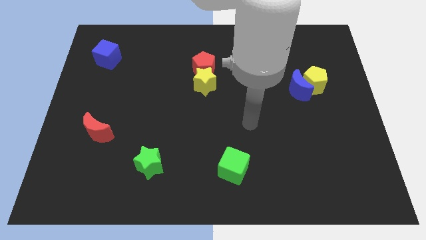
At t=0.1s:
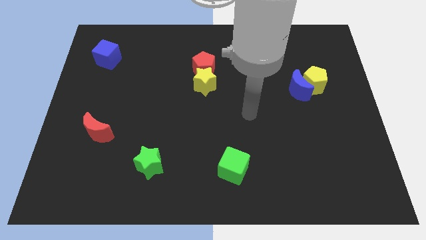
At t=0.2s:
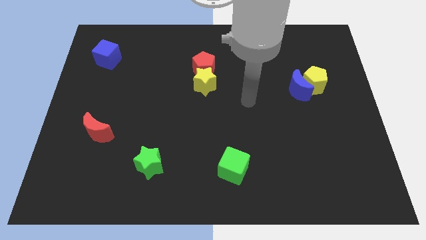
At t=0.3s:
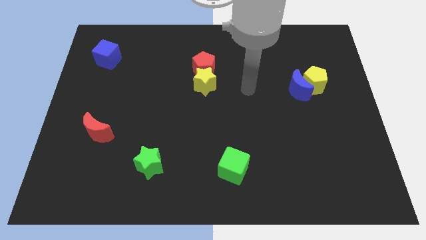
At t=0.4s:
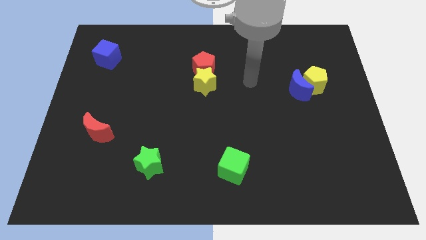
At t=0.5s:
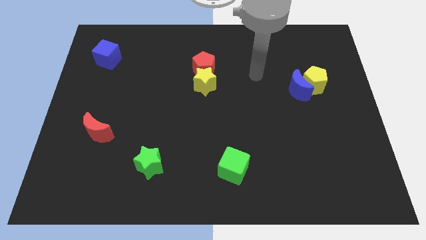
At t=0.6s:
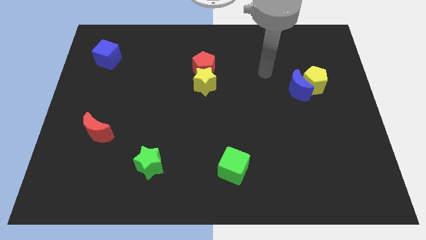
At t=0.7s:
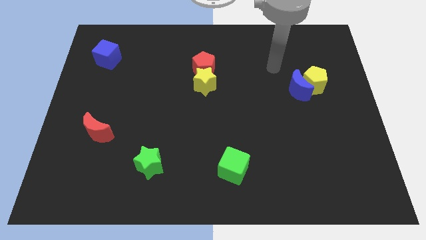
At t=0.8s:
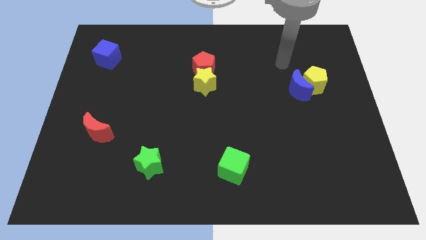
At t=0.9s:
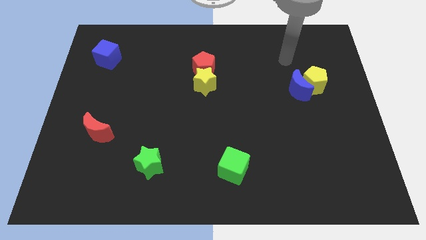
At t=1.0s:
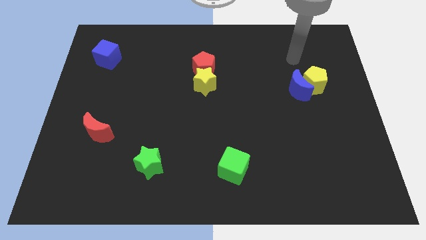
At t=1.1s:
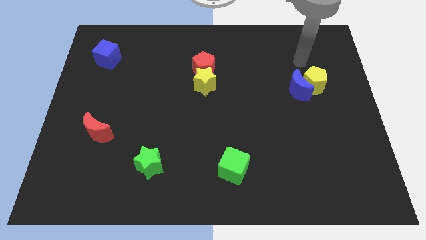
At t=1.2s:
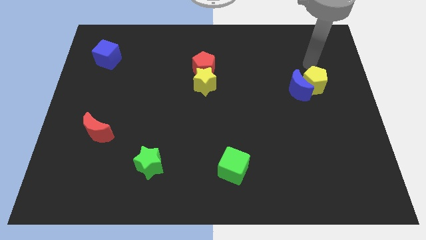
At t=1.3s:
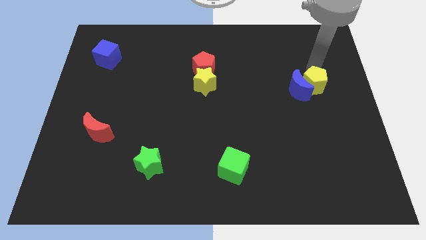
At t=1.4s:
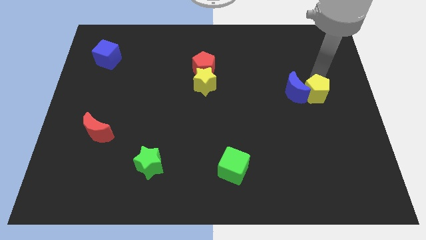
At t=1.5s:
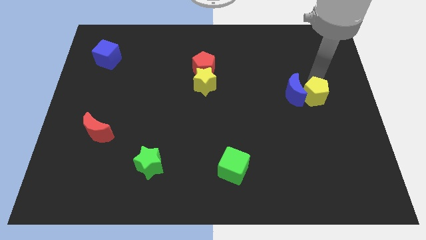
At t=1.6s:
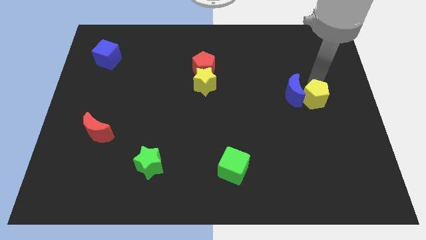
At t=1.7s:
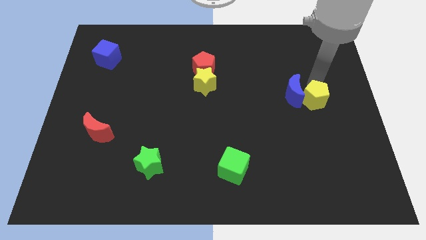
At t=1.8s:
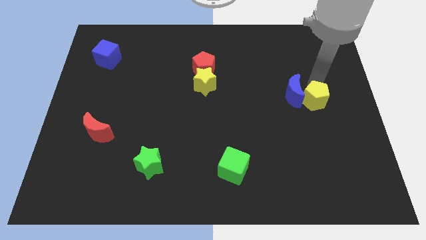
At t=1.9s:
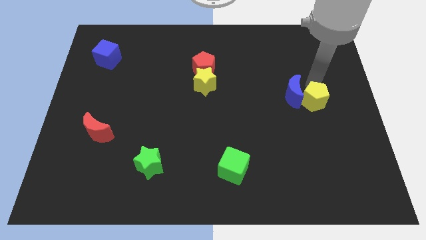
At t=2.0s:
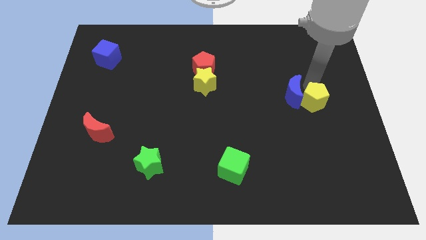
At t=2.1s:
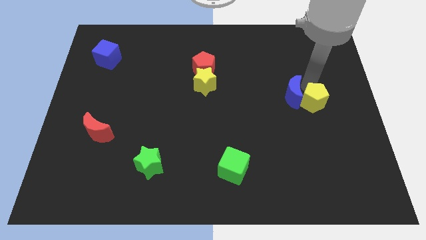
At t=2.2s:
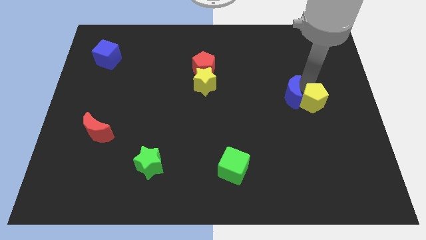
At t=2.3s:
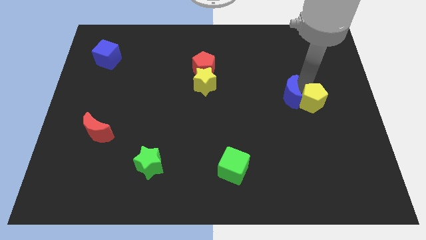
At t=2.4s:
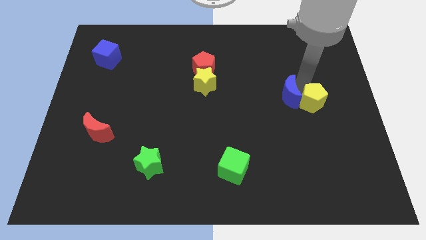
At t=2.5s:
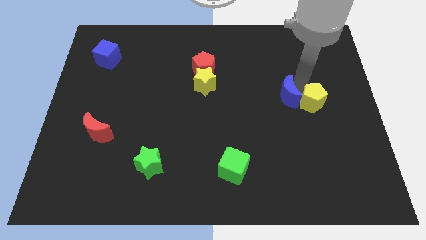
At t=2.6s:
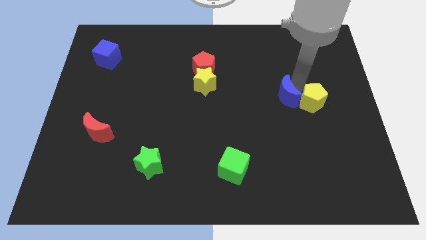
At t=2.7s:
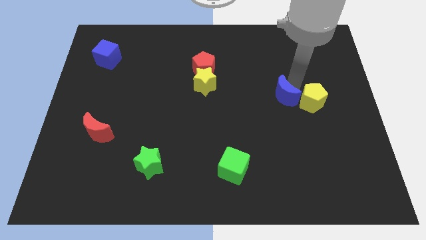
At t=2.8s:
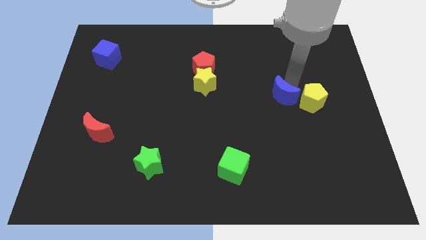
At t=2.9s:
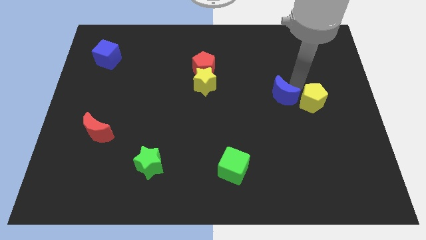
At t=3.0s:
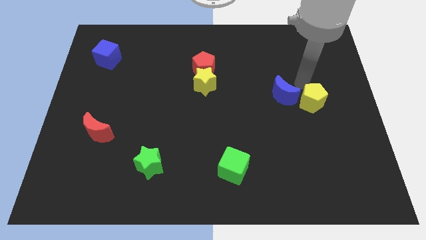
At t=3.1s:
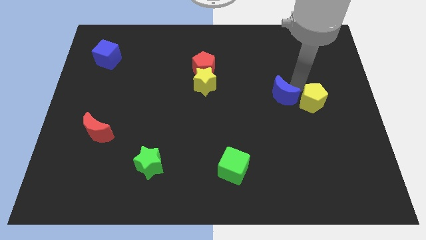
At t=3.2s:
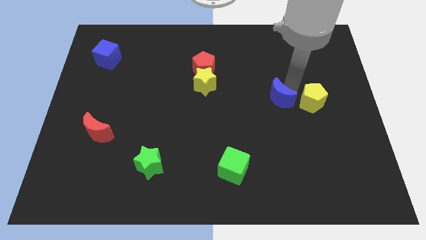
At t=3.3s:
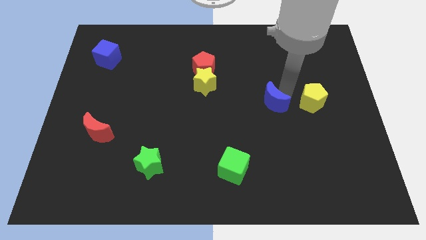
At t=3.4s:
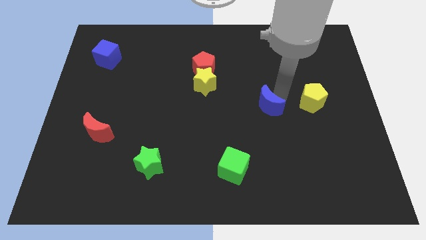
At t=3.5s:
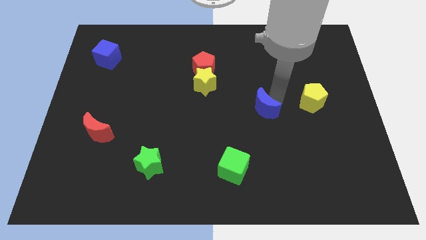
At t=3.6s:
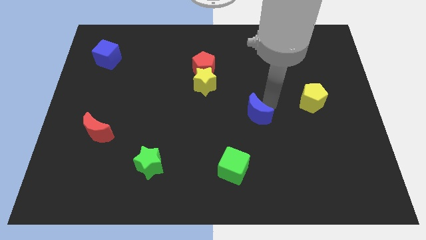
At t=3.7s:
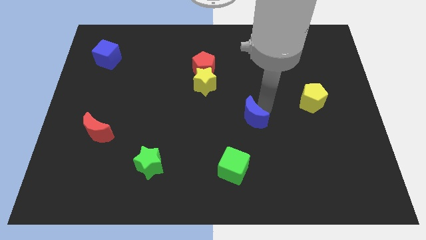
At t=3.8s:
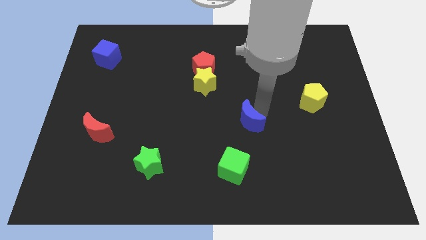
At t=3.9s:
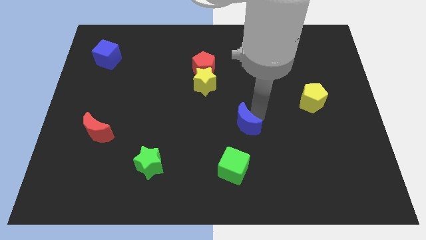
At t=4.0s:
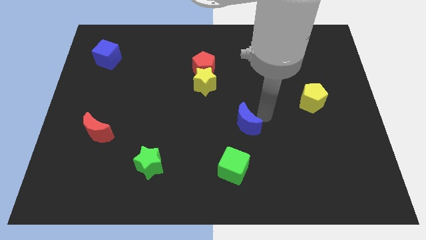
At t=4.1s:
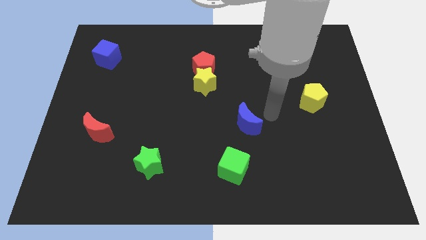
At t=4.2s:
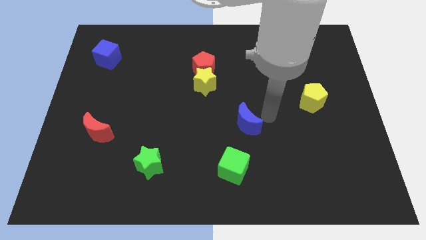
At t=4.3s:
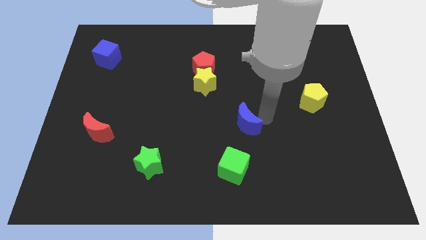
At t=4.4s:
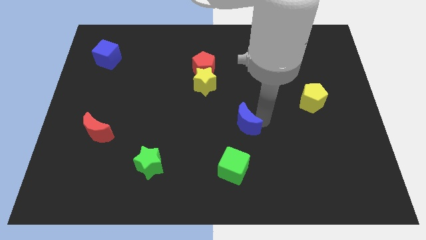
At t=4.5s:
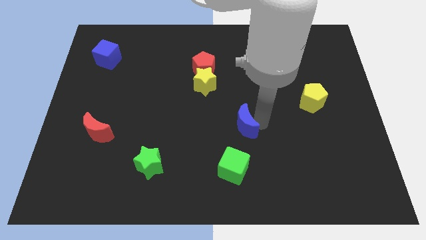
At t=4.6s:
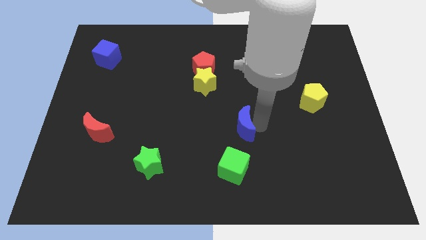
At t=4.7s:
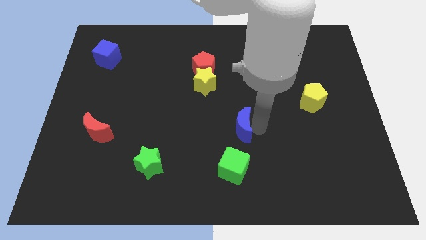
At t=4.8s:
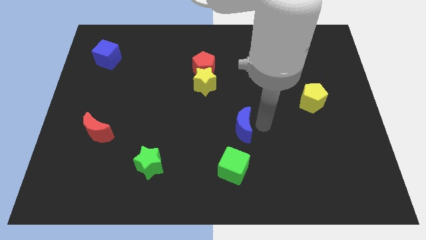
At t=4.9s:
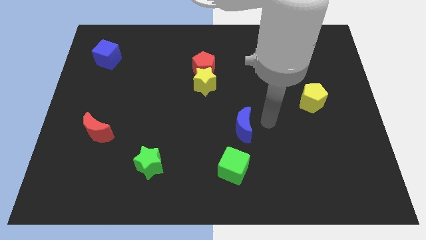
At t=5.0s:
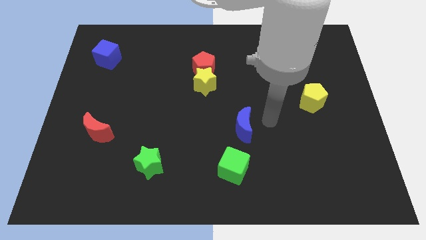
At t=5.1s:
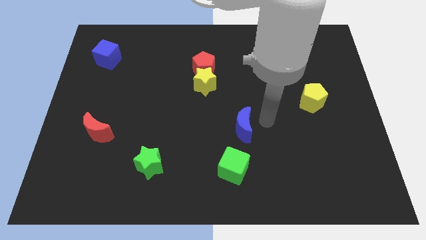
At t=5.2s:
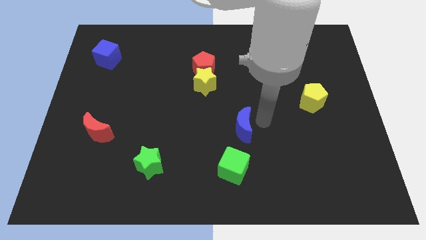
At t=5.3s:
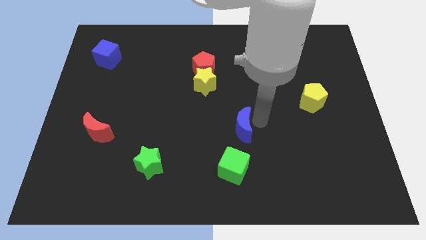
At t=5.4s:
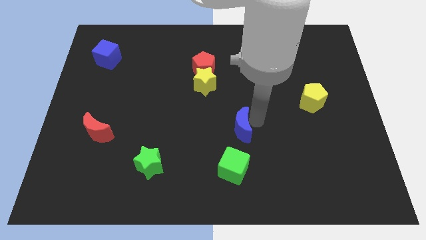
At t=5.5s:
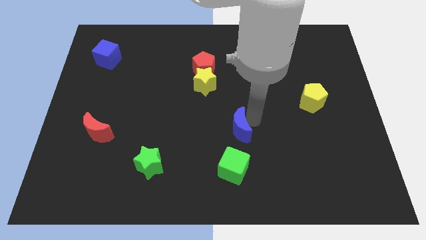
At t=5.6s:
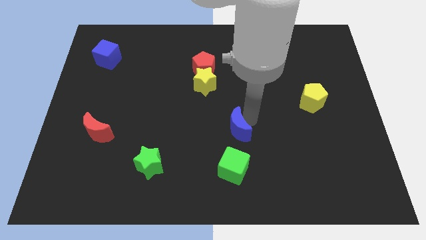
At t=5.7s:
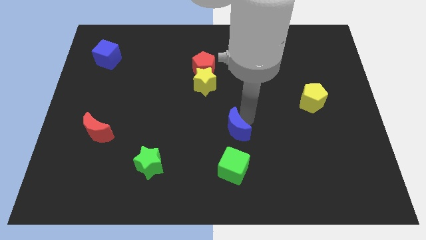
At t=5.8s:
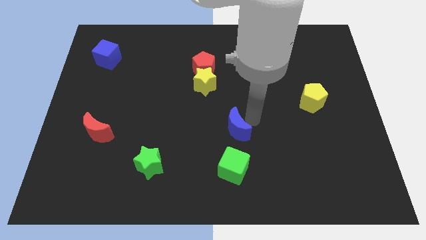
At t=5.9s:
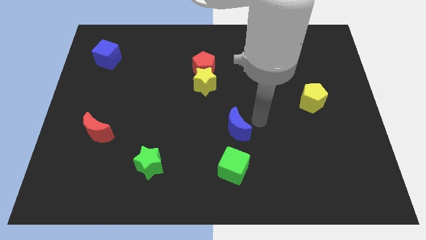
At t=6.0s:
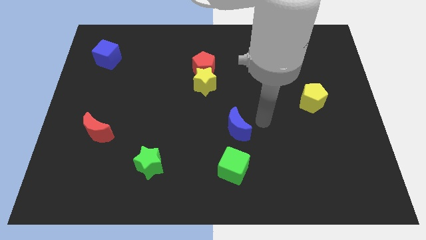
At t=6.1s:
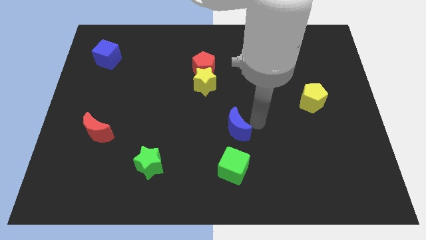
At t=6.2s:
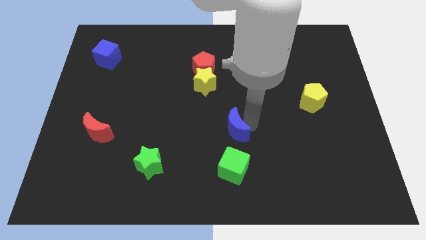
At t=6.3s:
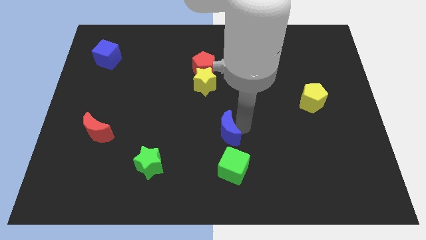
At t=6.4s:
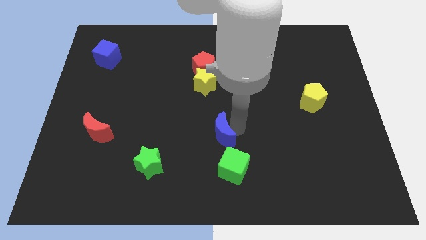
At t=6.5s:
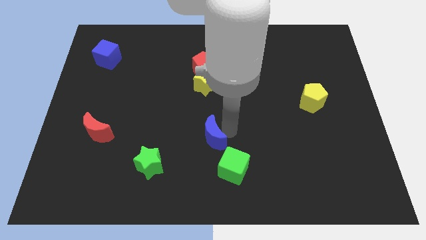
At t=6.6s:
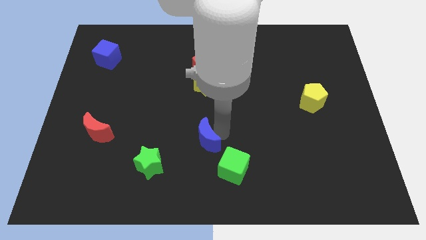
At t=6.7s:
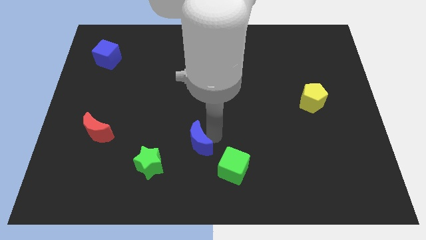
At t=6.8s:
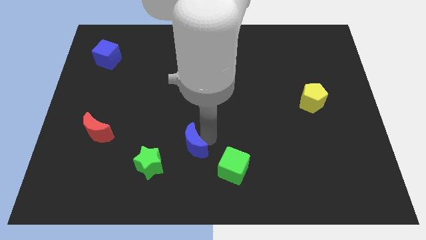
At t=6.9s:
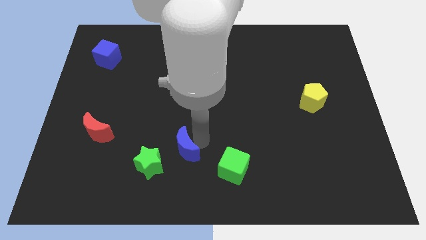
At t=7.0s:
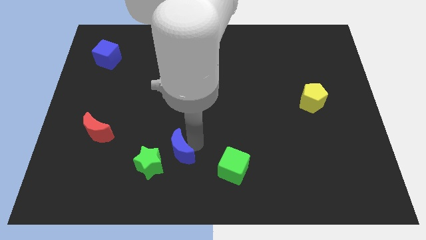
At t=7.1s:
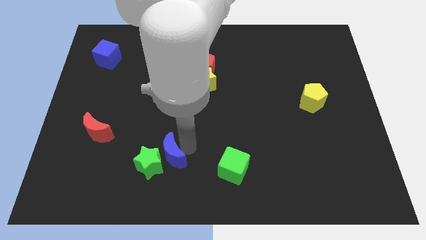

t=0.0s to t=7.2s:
move the blue moon close to the green star
